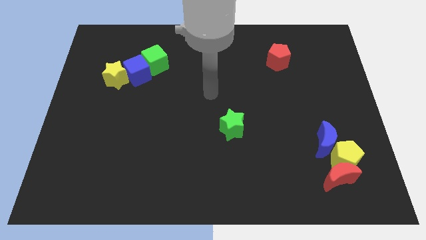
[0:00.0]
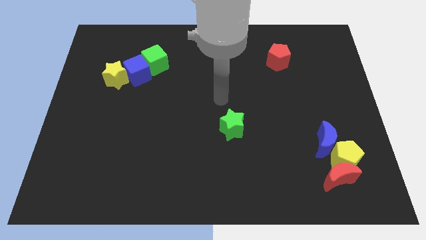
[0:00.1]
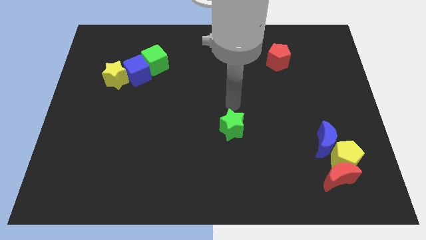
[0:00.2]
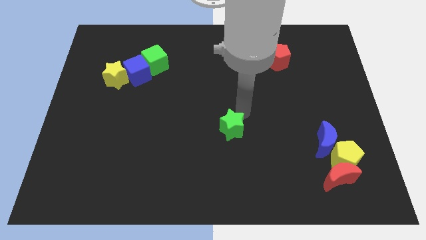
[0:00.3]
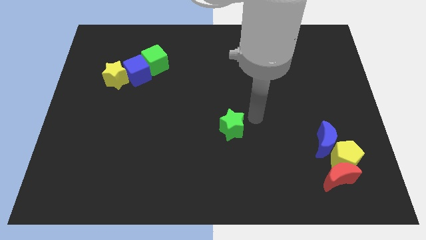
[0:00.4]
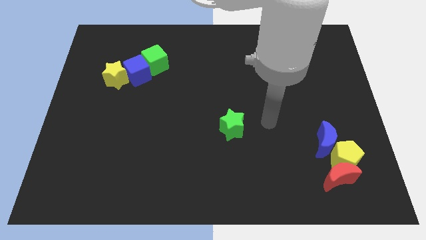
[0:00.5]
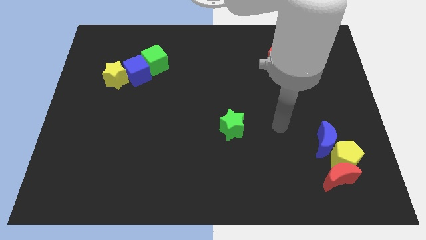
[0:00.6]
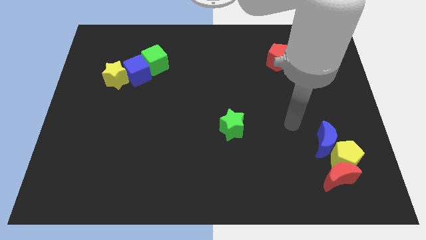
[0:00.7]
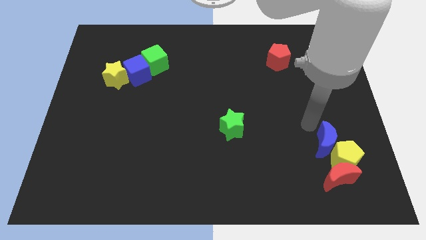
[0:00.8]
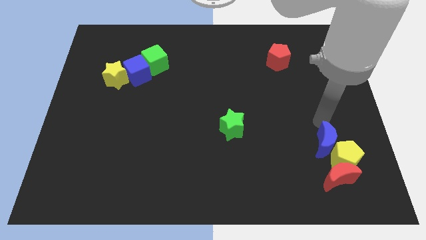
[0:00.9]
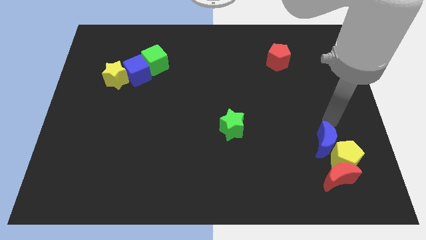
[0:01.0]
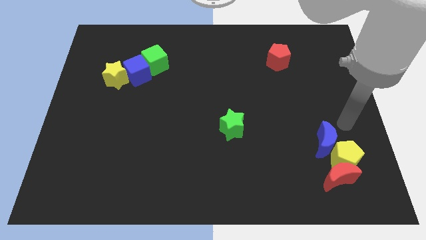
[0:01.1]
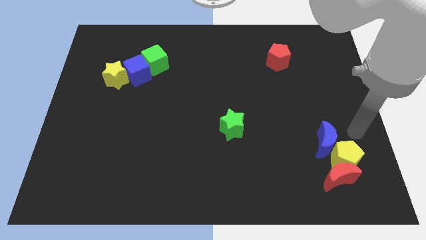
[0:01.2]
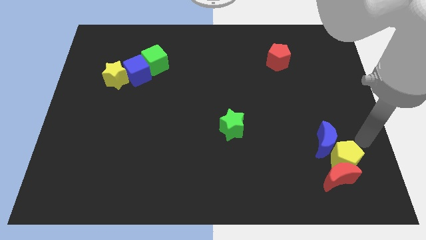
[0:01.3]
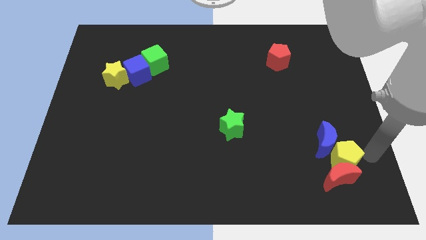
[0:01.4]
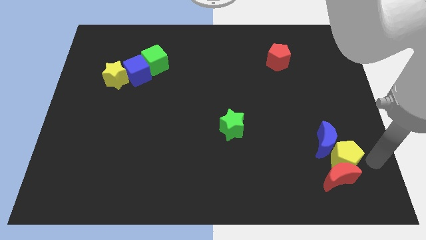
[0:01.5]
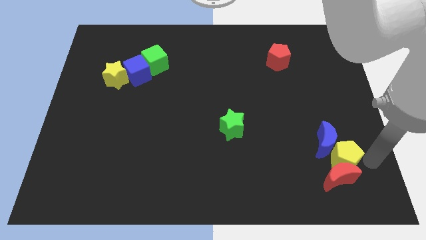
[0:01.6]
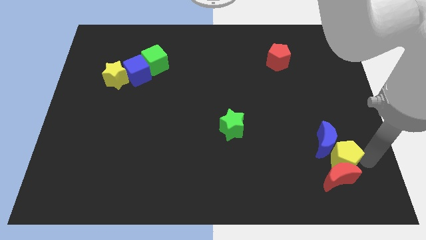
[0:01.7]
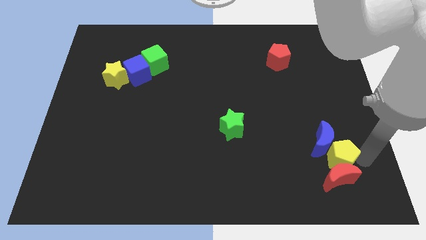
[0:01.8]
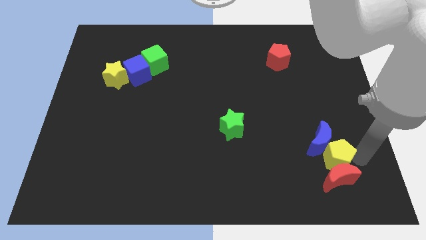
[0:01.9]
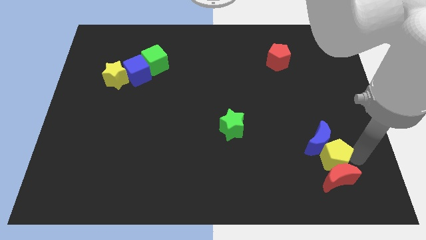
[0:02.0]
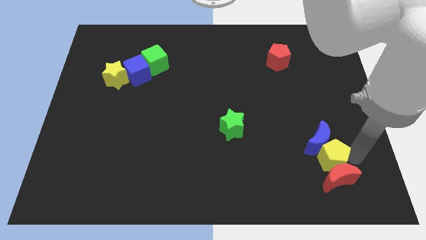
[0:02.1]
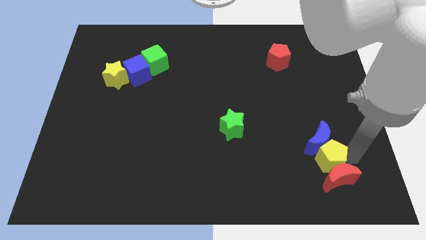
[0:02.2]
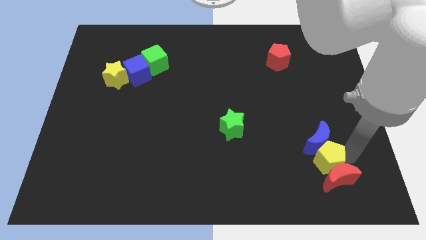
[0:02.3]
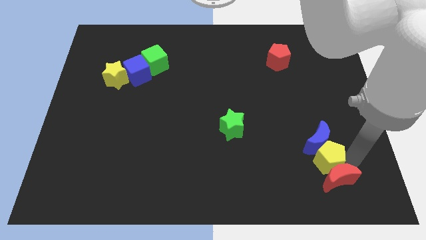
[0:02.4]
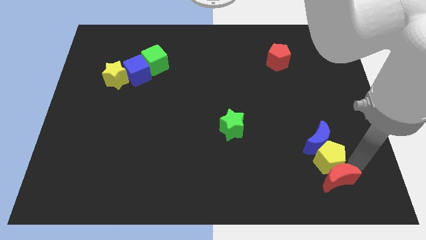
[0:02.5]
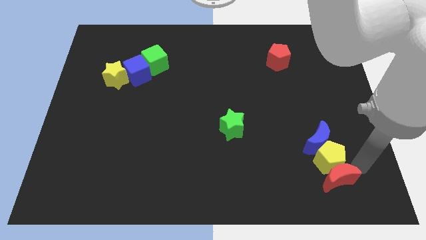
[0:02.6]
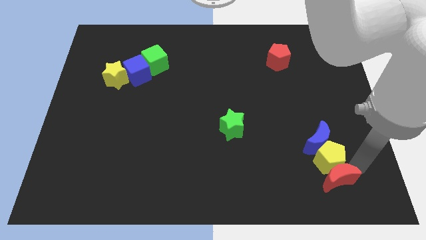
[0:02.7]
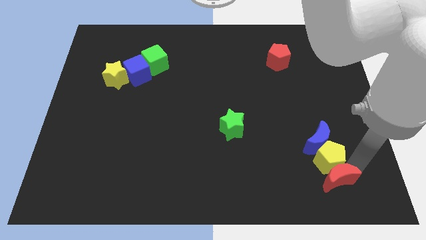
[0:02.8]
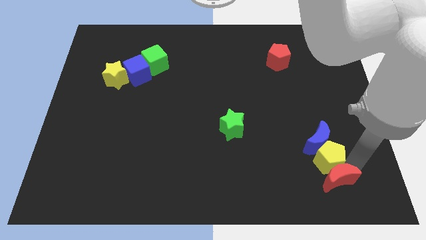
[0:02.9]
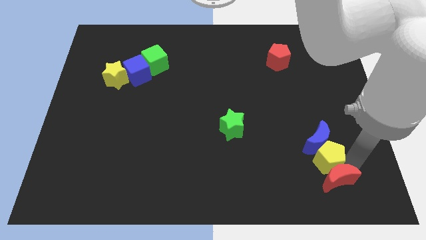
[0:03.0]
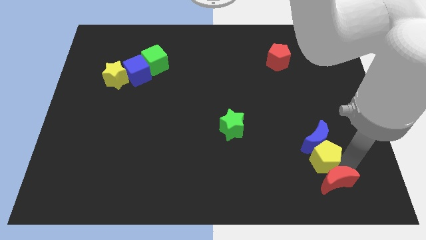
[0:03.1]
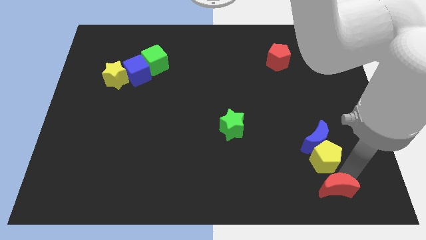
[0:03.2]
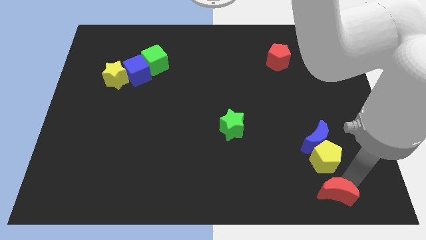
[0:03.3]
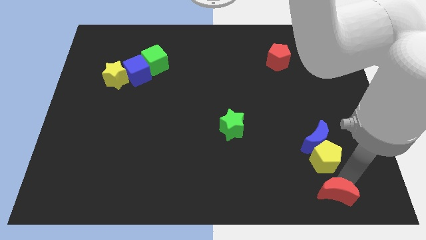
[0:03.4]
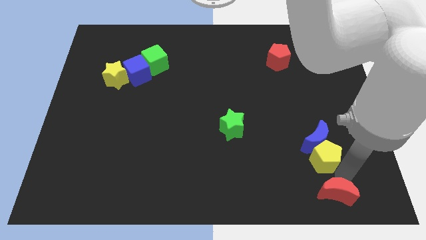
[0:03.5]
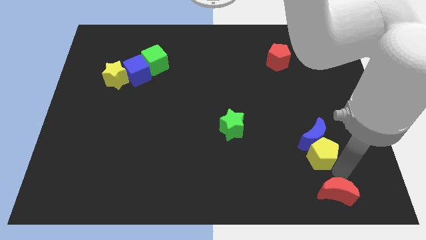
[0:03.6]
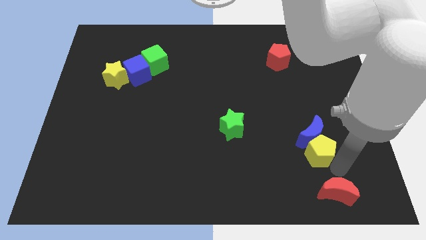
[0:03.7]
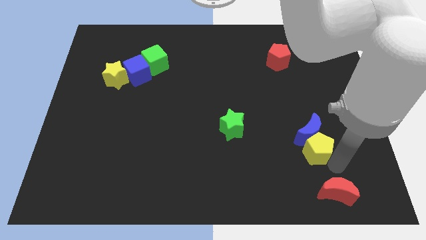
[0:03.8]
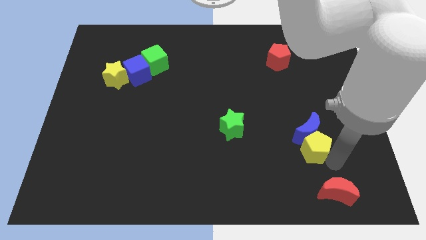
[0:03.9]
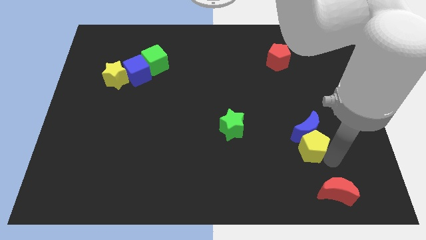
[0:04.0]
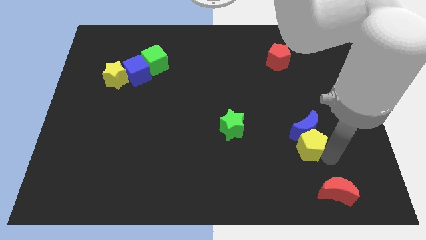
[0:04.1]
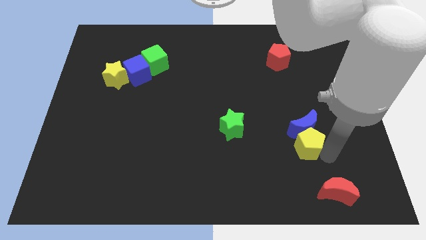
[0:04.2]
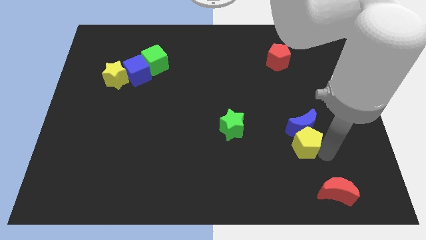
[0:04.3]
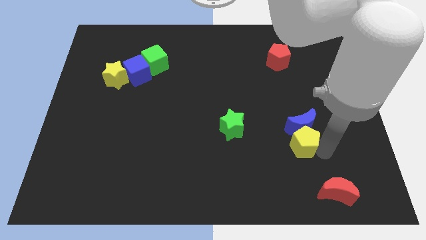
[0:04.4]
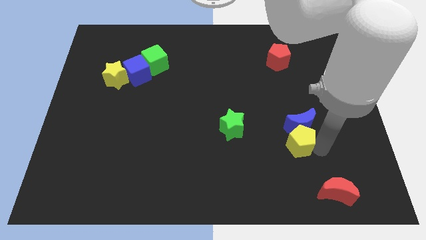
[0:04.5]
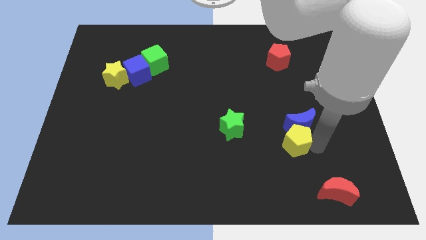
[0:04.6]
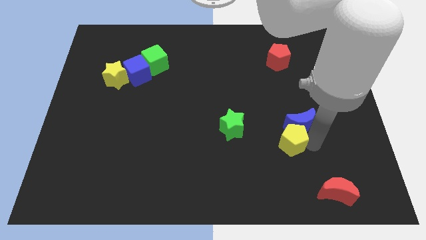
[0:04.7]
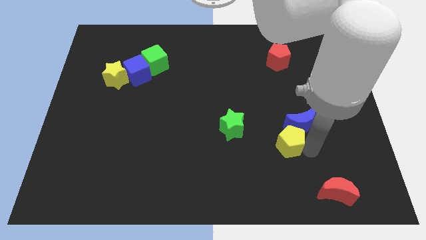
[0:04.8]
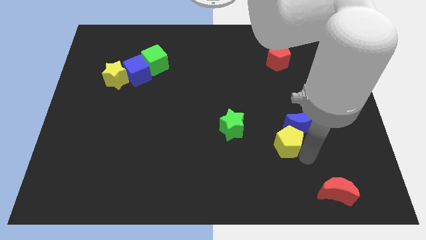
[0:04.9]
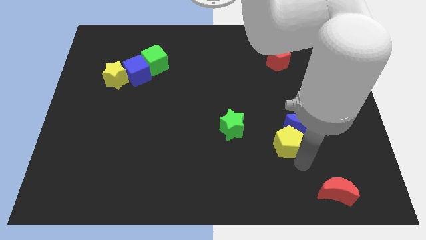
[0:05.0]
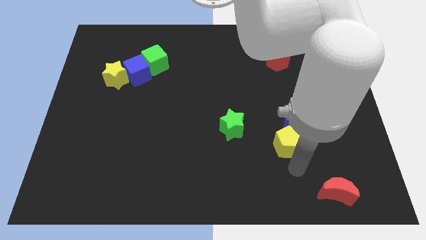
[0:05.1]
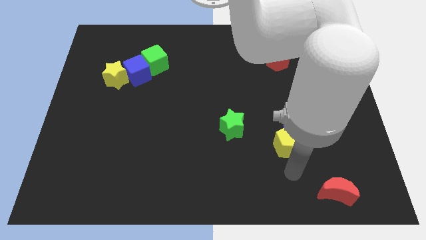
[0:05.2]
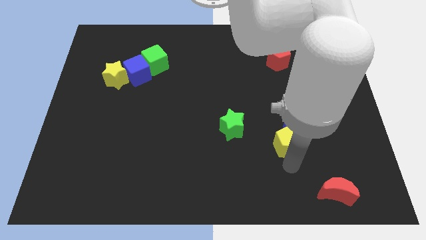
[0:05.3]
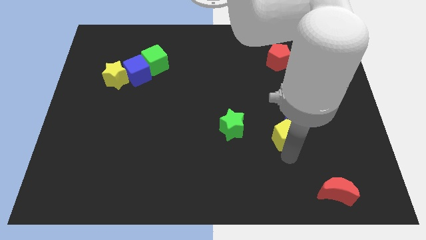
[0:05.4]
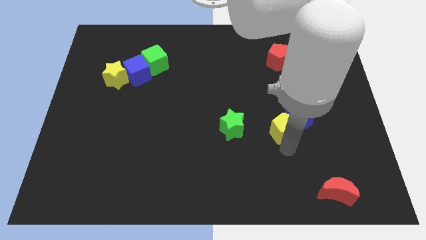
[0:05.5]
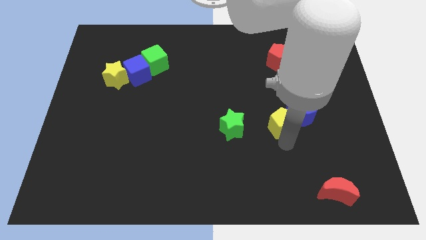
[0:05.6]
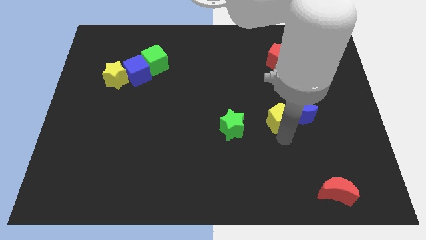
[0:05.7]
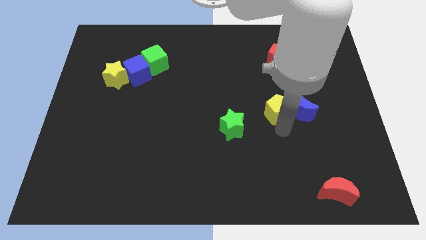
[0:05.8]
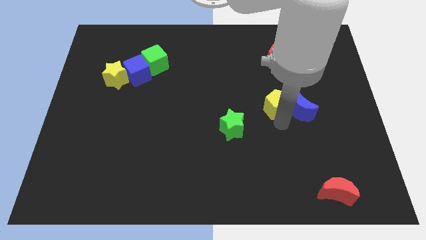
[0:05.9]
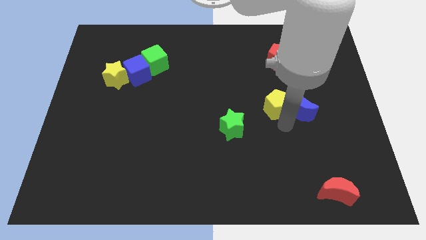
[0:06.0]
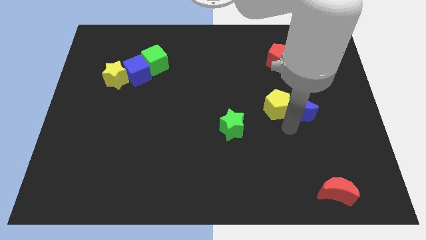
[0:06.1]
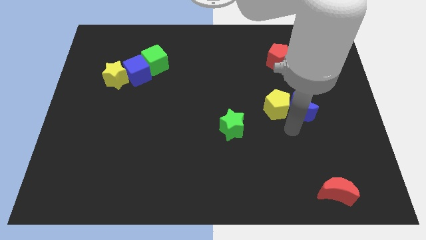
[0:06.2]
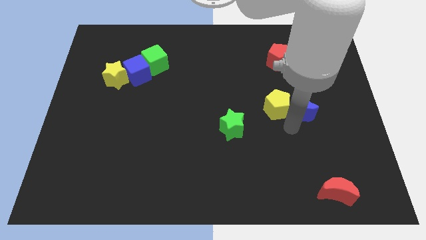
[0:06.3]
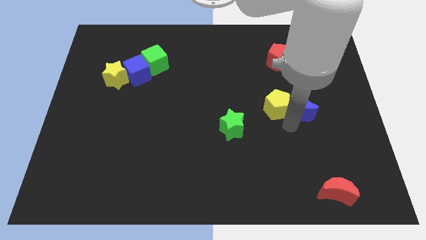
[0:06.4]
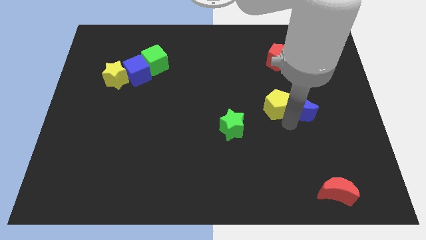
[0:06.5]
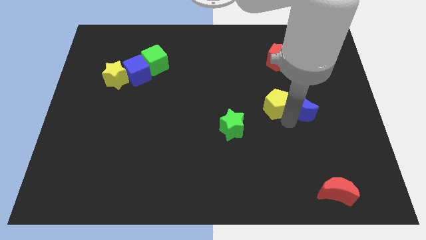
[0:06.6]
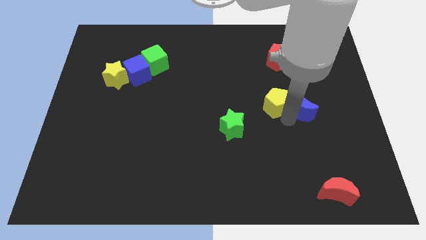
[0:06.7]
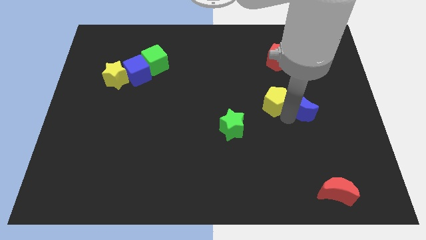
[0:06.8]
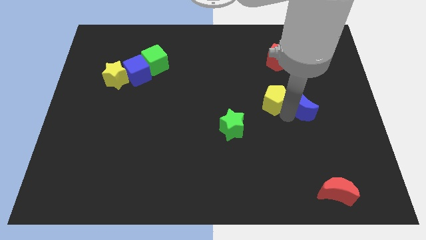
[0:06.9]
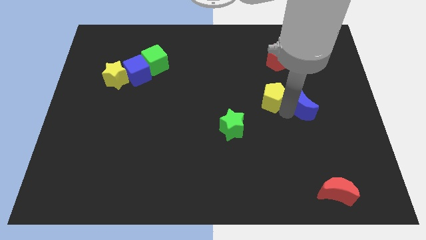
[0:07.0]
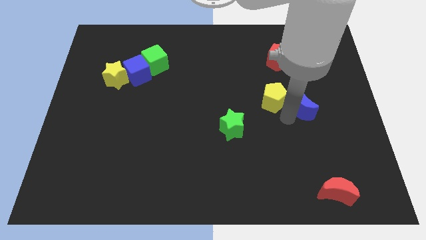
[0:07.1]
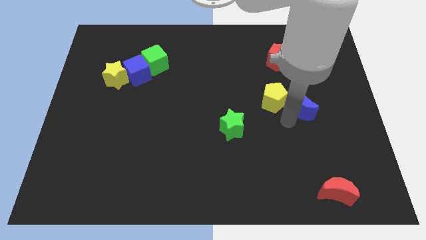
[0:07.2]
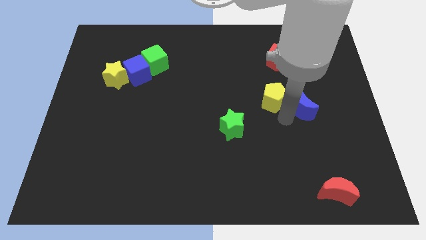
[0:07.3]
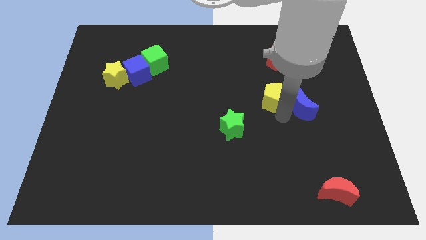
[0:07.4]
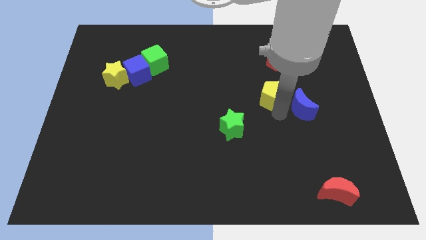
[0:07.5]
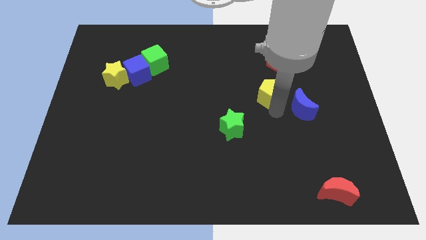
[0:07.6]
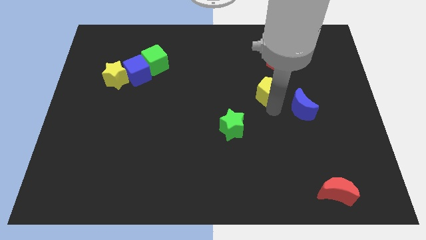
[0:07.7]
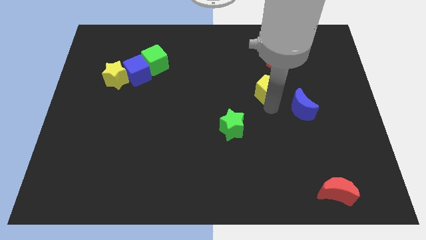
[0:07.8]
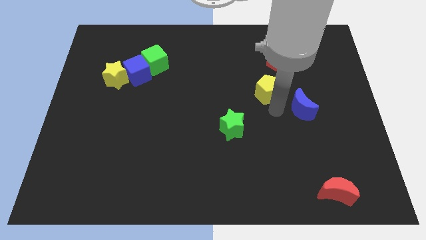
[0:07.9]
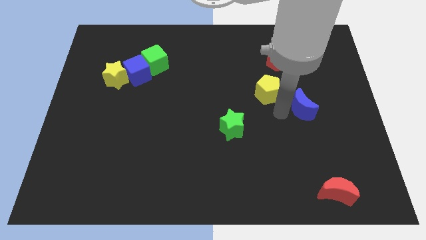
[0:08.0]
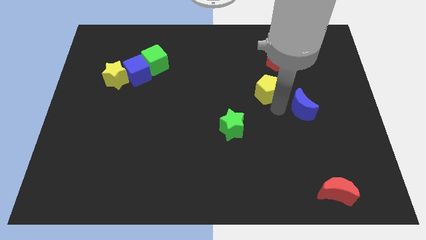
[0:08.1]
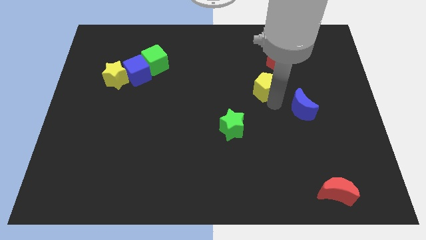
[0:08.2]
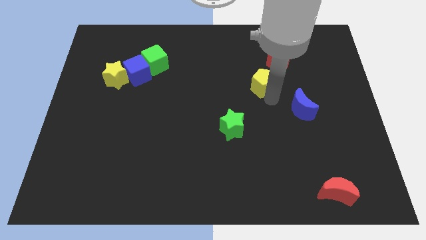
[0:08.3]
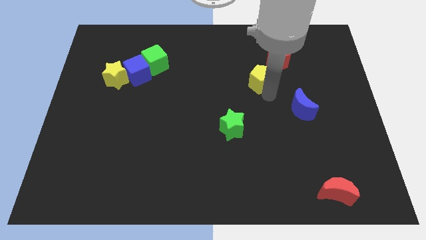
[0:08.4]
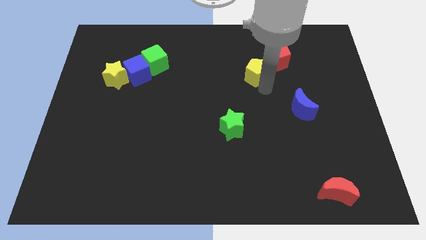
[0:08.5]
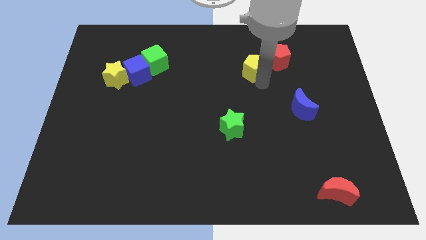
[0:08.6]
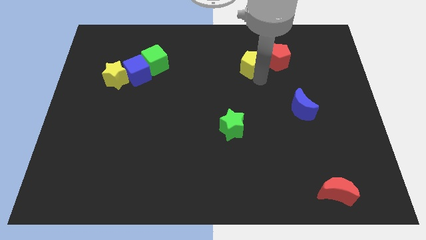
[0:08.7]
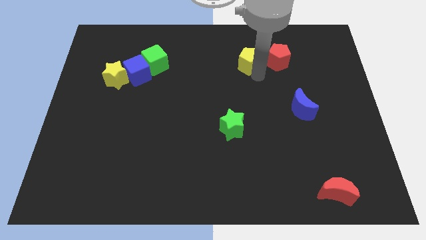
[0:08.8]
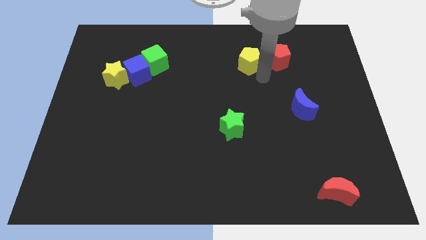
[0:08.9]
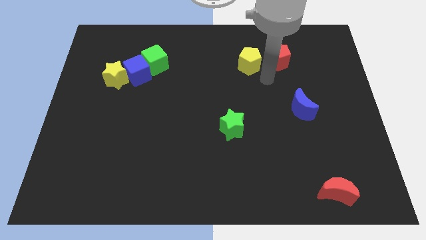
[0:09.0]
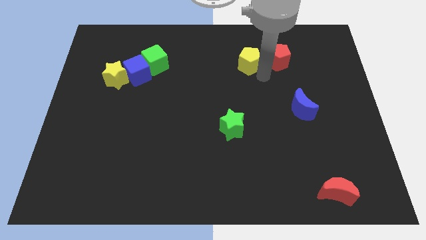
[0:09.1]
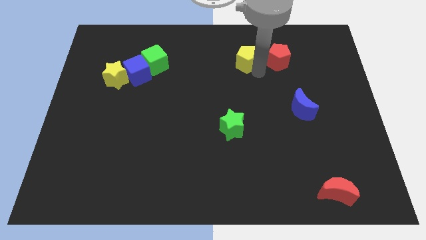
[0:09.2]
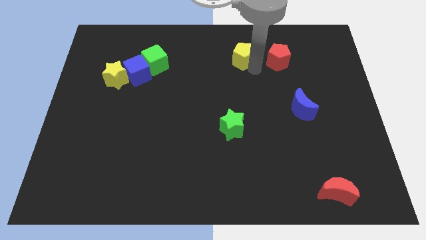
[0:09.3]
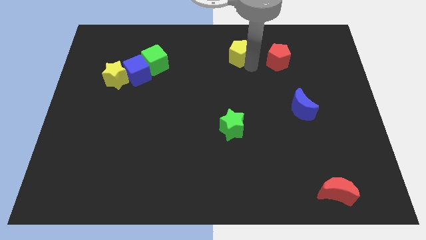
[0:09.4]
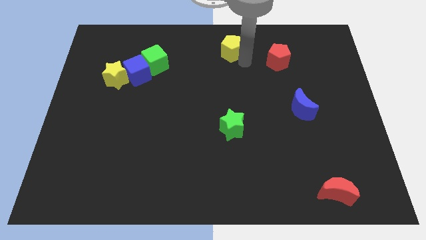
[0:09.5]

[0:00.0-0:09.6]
slide the yellow pentagon to the top side
